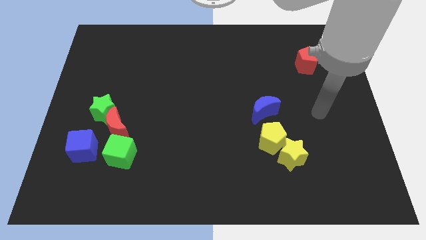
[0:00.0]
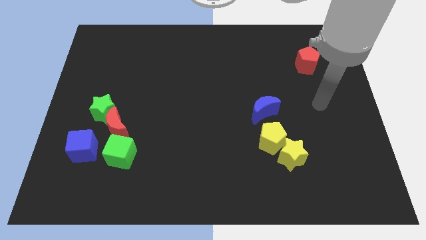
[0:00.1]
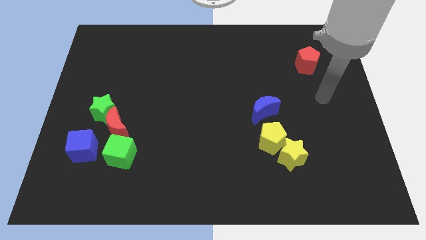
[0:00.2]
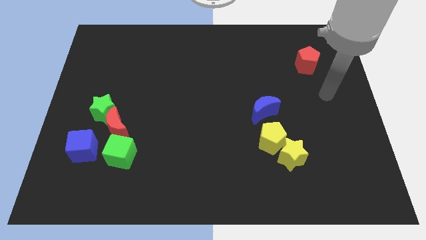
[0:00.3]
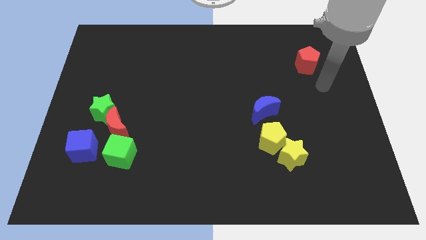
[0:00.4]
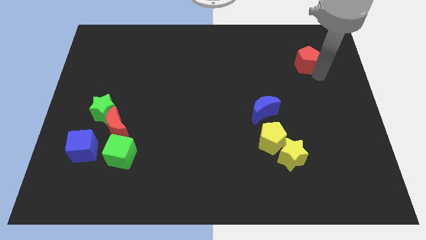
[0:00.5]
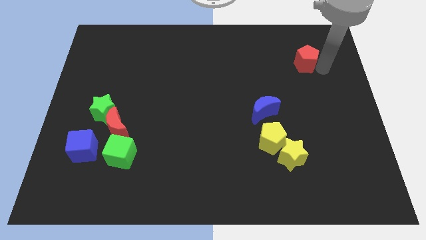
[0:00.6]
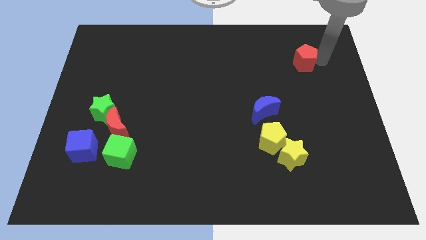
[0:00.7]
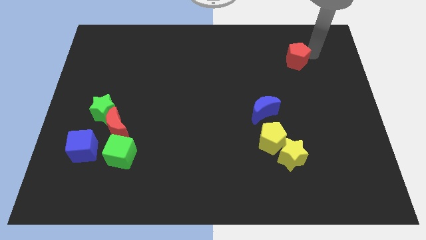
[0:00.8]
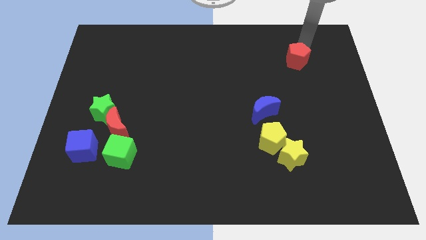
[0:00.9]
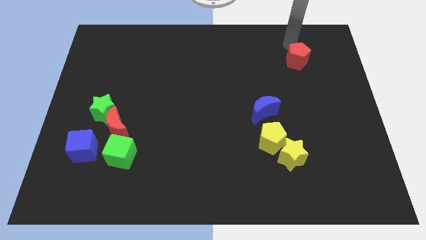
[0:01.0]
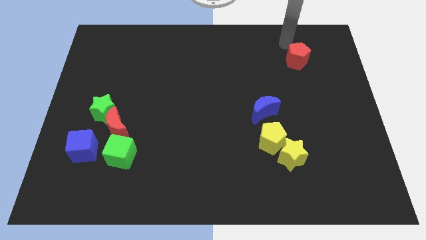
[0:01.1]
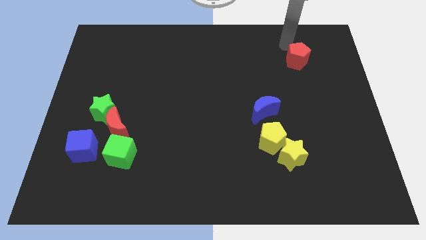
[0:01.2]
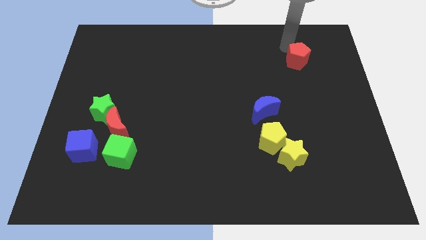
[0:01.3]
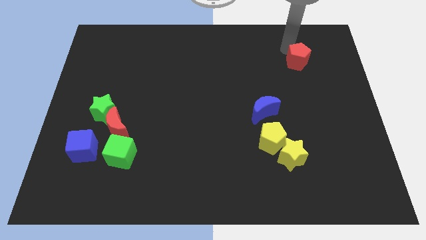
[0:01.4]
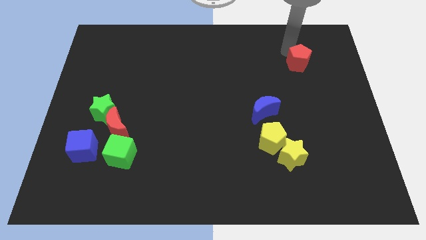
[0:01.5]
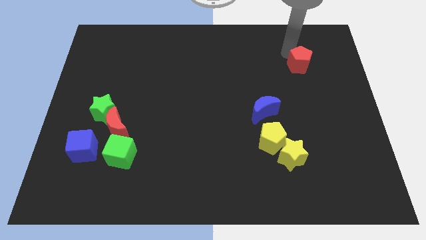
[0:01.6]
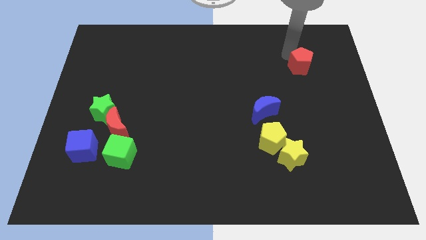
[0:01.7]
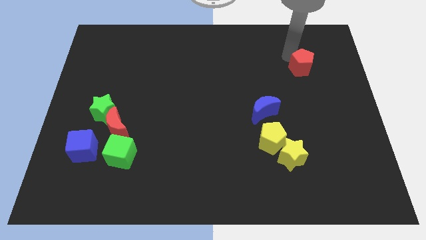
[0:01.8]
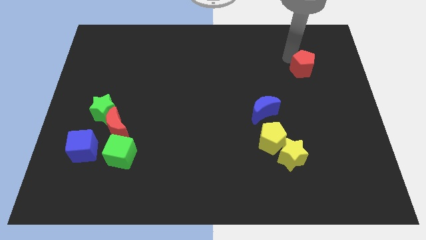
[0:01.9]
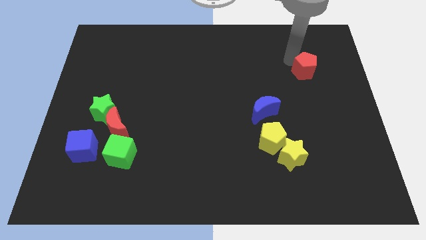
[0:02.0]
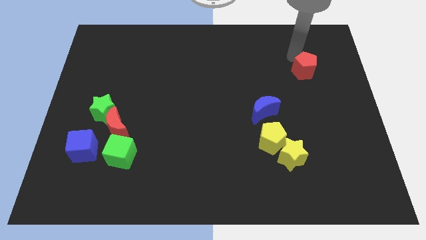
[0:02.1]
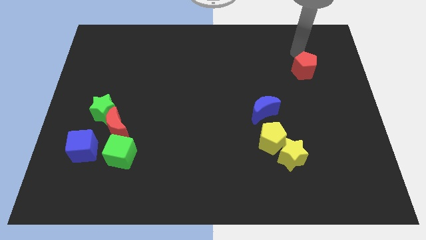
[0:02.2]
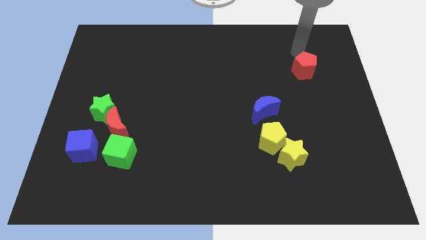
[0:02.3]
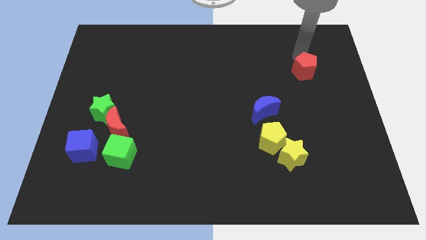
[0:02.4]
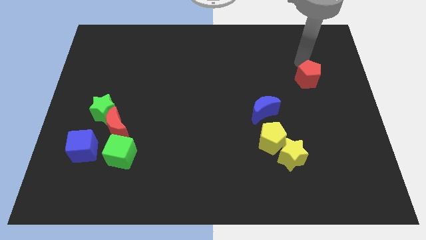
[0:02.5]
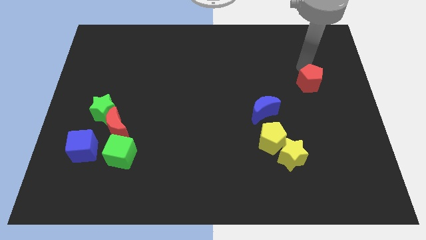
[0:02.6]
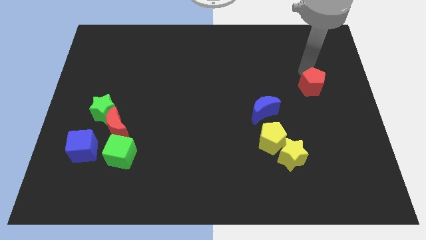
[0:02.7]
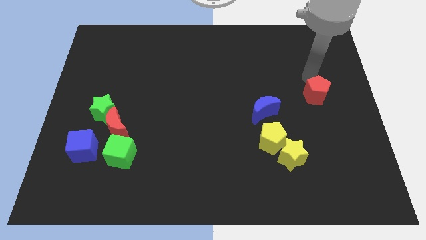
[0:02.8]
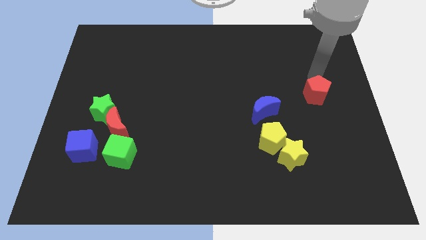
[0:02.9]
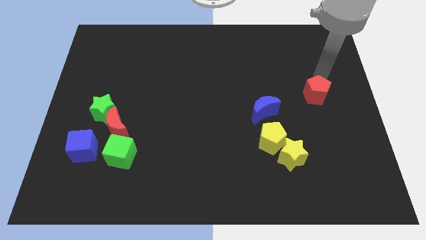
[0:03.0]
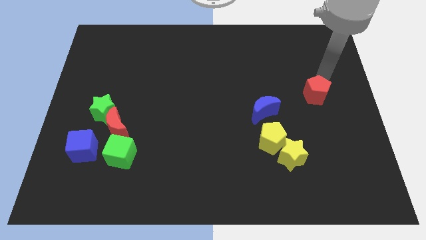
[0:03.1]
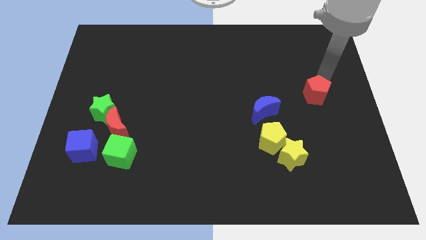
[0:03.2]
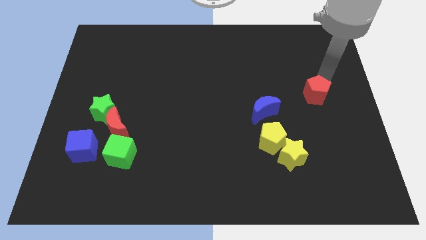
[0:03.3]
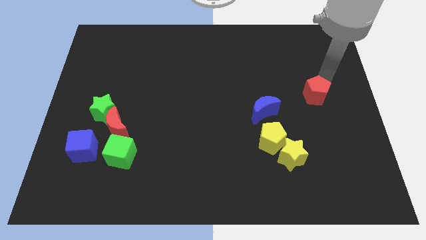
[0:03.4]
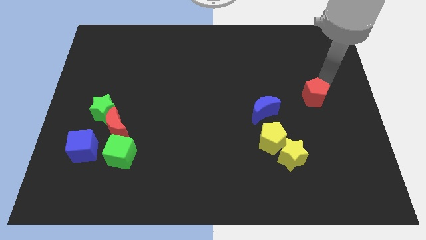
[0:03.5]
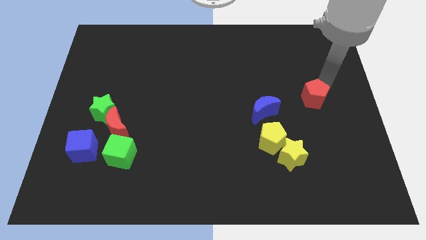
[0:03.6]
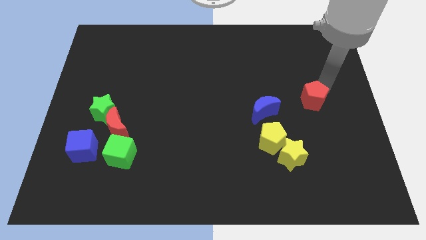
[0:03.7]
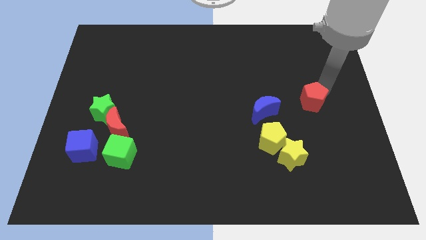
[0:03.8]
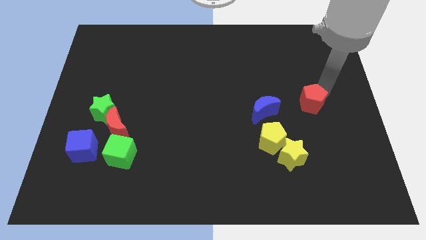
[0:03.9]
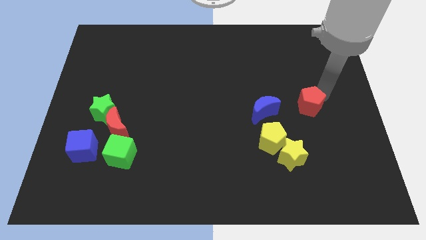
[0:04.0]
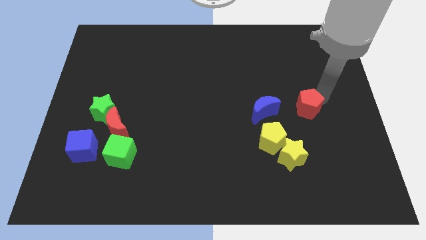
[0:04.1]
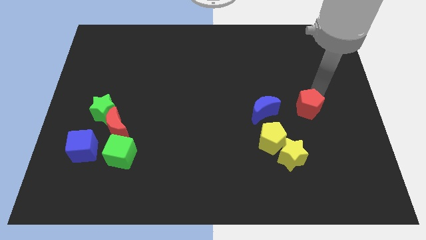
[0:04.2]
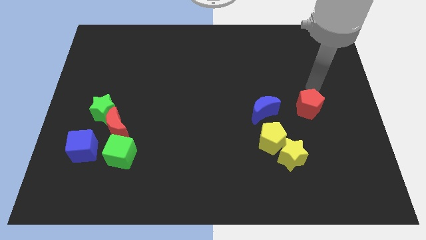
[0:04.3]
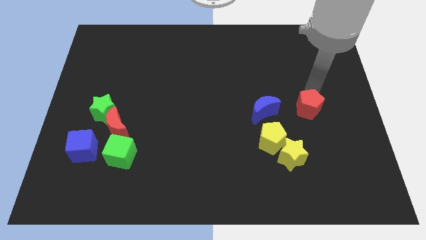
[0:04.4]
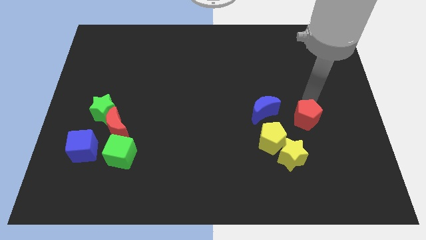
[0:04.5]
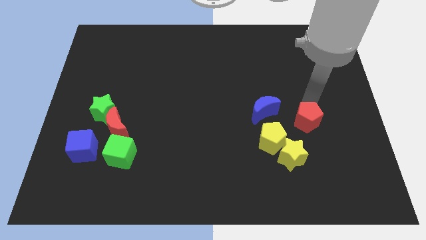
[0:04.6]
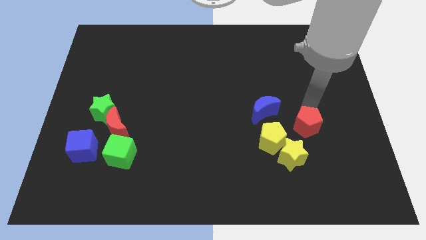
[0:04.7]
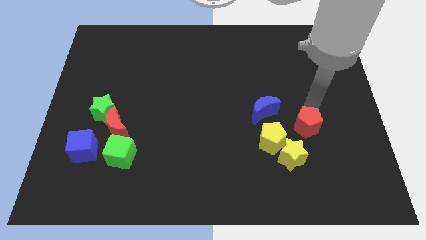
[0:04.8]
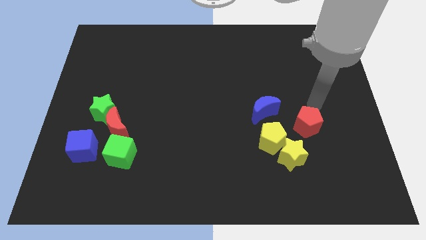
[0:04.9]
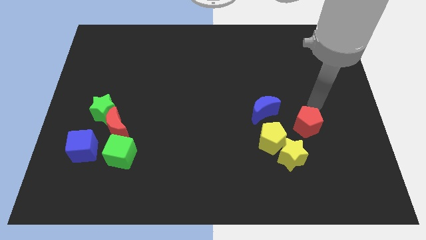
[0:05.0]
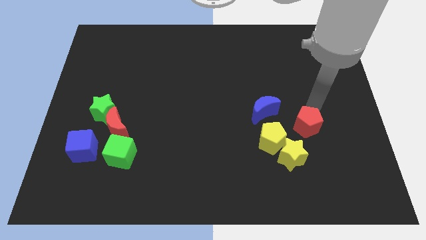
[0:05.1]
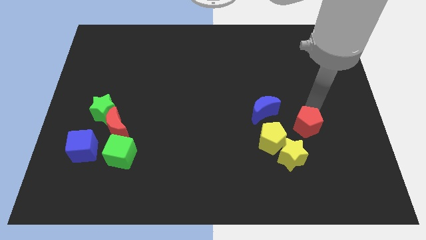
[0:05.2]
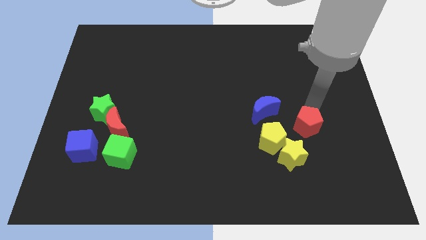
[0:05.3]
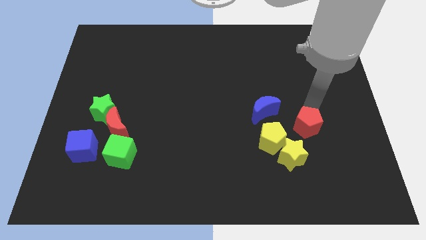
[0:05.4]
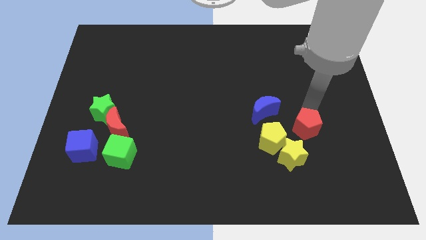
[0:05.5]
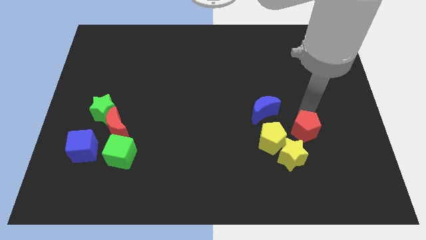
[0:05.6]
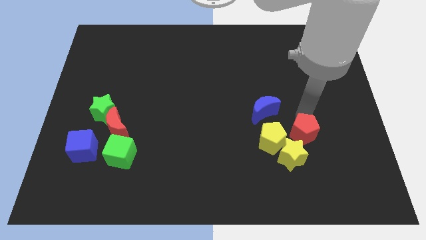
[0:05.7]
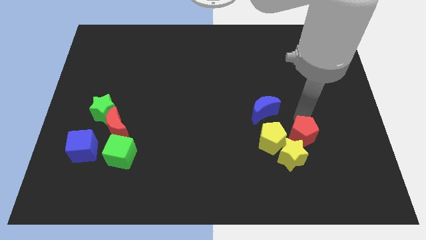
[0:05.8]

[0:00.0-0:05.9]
move the red pentagon close to the yellow star

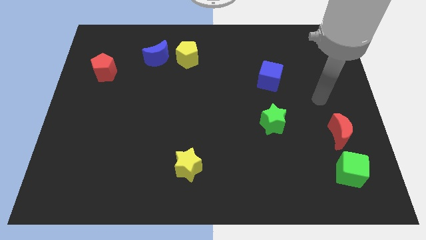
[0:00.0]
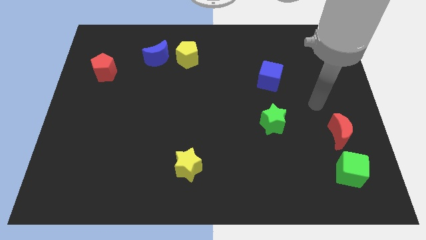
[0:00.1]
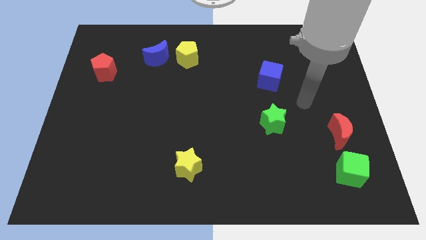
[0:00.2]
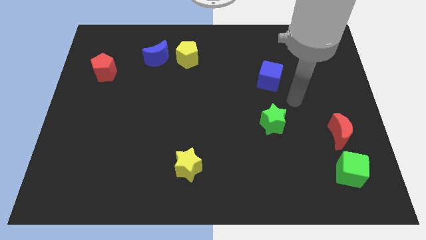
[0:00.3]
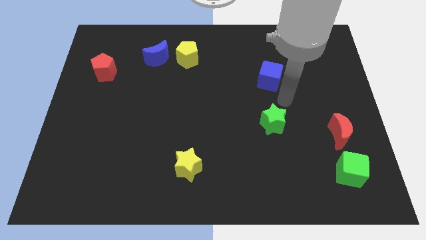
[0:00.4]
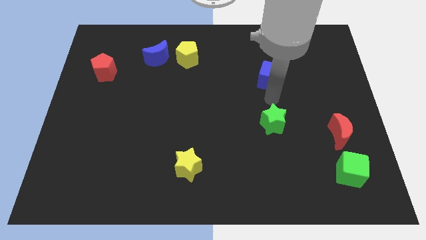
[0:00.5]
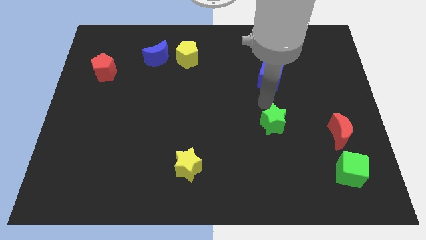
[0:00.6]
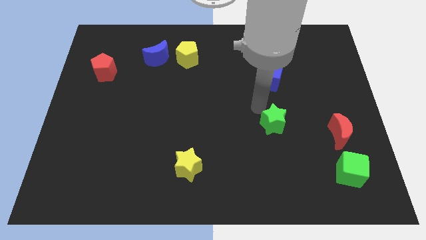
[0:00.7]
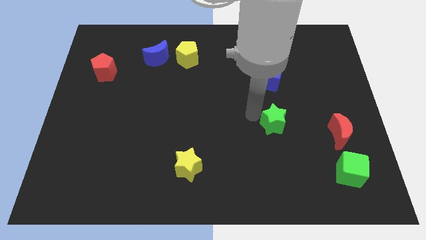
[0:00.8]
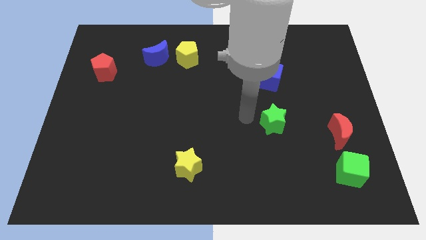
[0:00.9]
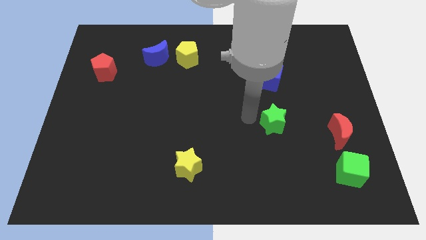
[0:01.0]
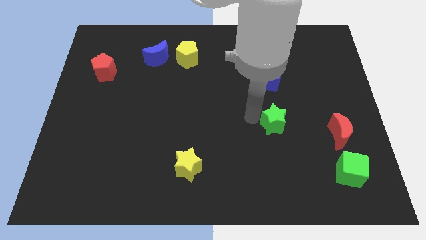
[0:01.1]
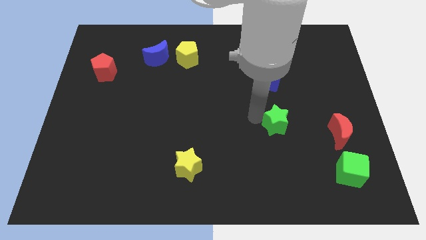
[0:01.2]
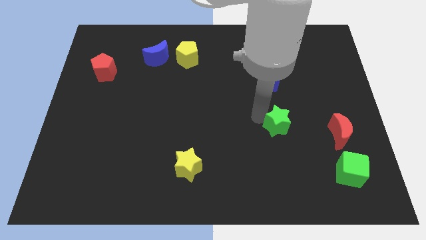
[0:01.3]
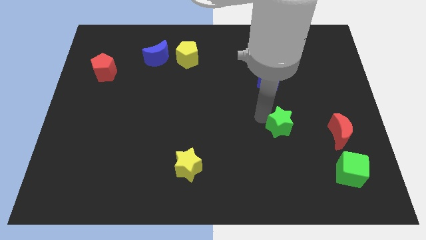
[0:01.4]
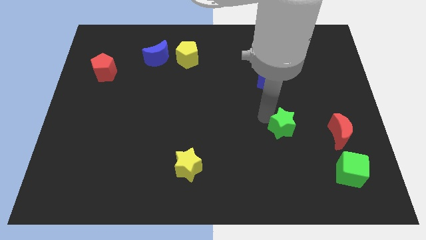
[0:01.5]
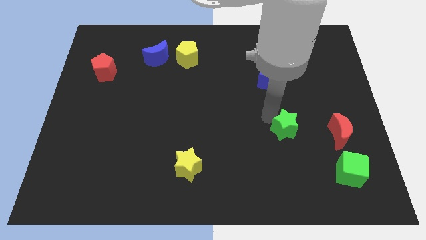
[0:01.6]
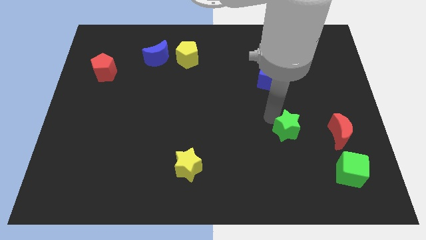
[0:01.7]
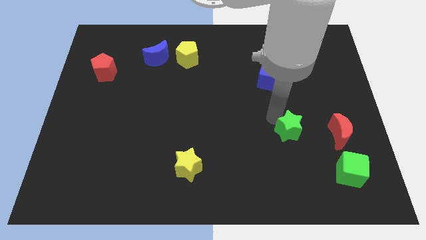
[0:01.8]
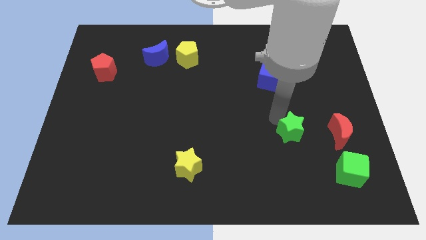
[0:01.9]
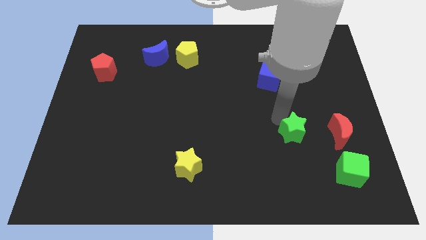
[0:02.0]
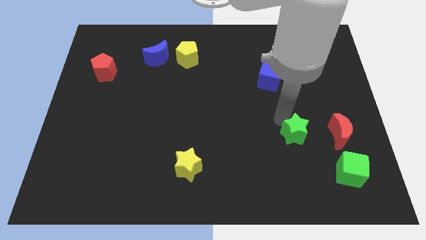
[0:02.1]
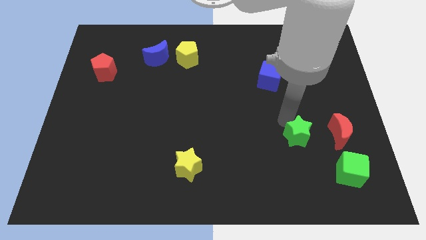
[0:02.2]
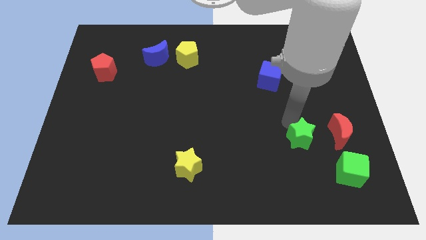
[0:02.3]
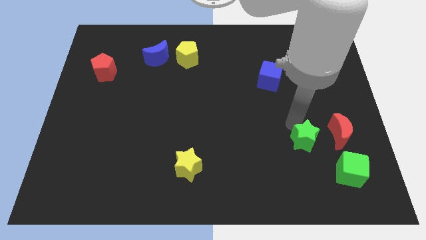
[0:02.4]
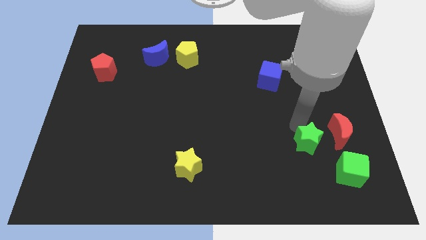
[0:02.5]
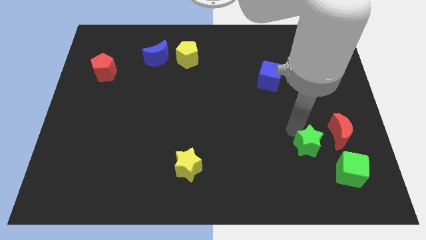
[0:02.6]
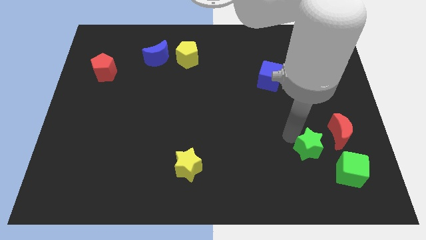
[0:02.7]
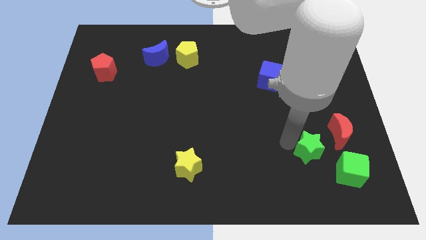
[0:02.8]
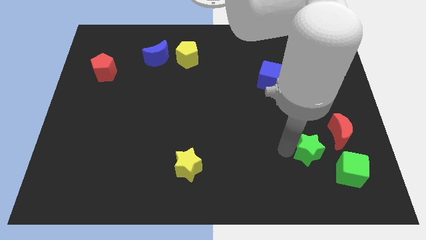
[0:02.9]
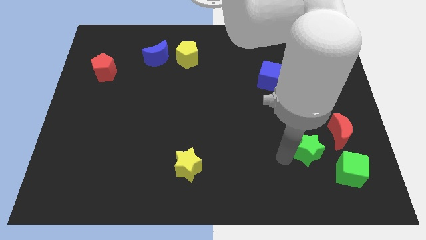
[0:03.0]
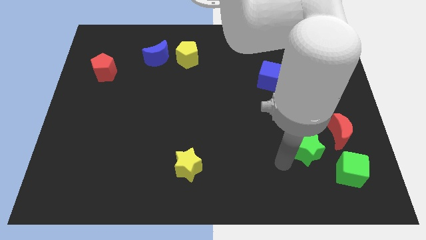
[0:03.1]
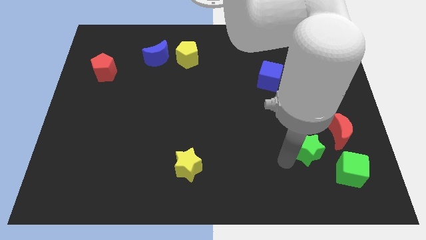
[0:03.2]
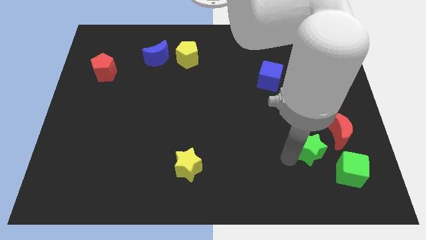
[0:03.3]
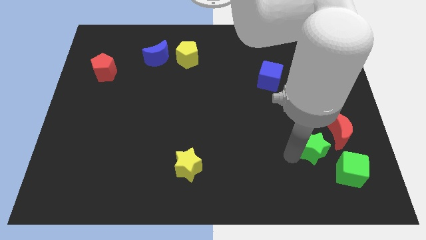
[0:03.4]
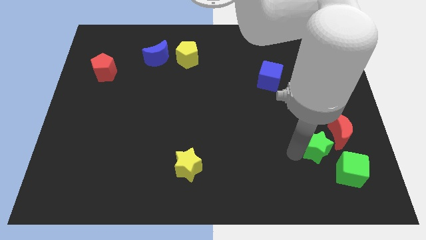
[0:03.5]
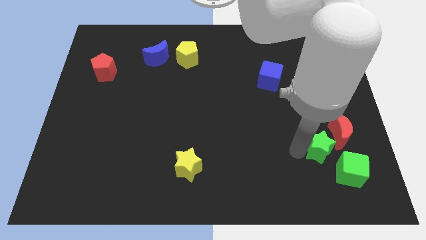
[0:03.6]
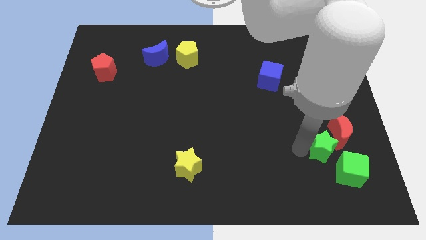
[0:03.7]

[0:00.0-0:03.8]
slide the green star close to the red moon
